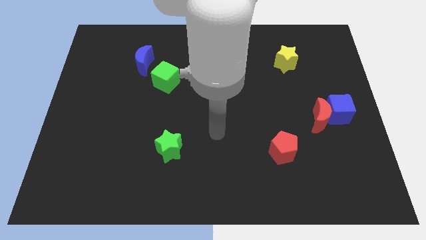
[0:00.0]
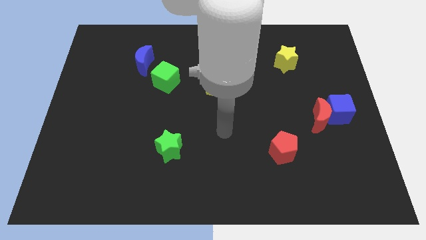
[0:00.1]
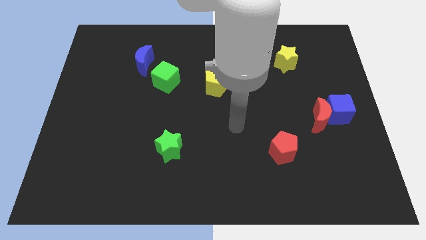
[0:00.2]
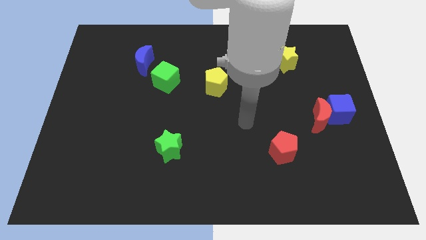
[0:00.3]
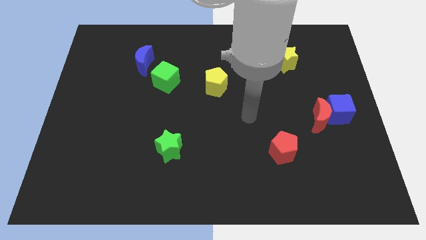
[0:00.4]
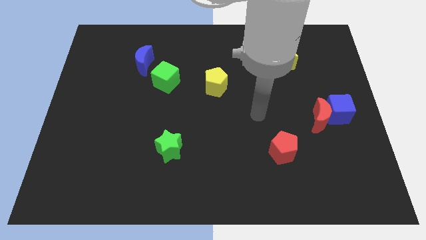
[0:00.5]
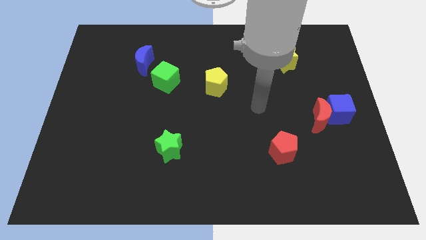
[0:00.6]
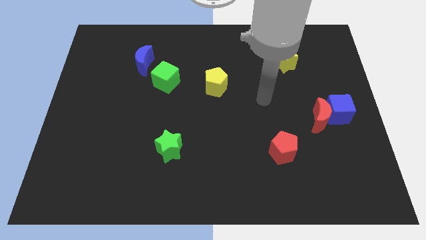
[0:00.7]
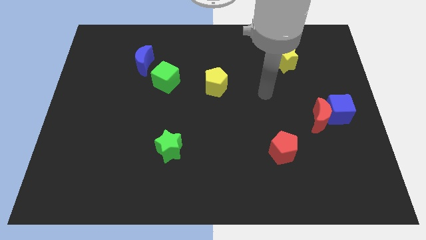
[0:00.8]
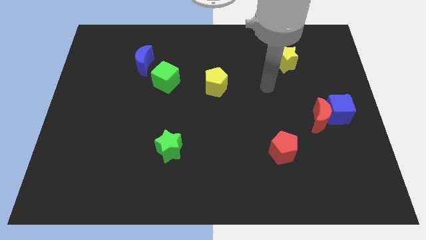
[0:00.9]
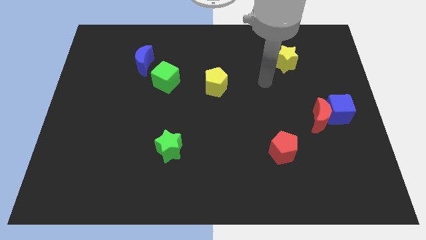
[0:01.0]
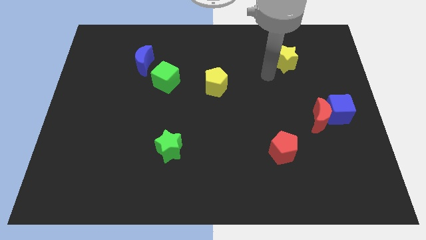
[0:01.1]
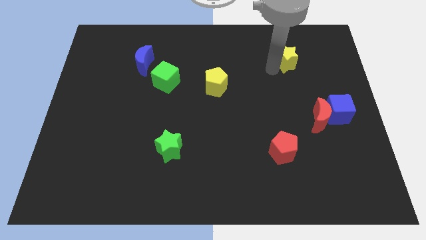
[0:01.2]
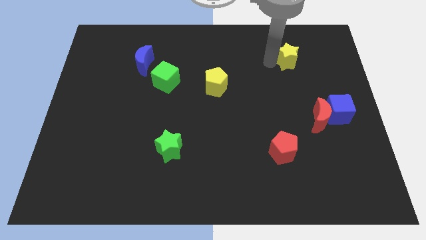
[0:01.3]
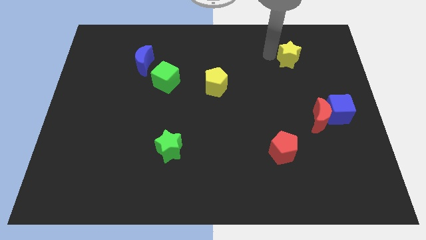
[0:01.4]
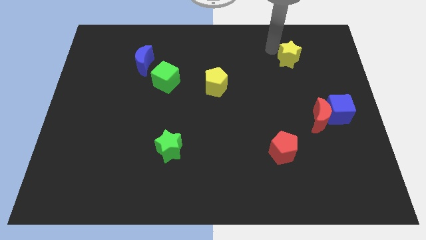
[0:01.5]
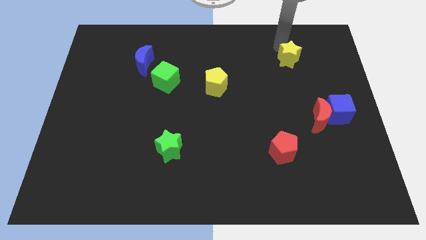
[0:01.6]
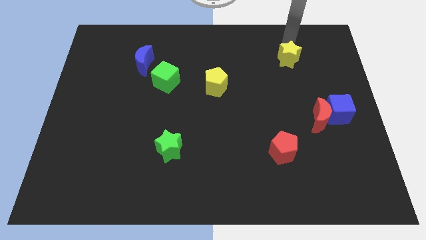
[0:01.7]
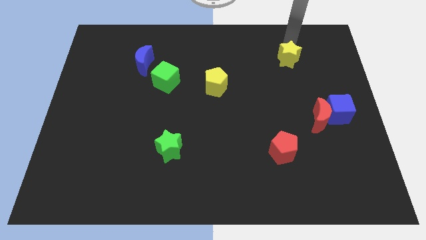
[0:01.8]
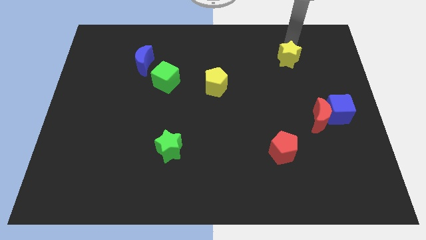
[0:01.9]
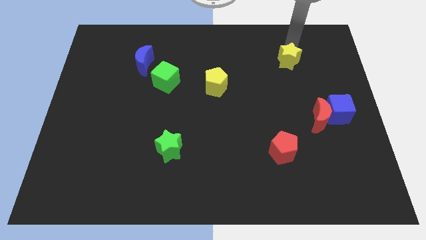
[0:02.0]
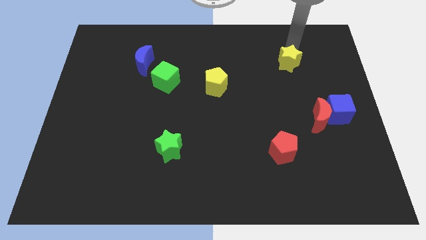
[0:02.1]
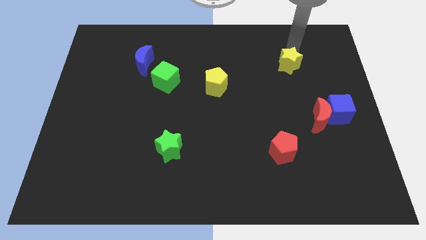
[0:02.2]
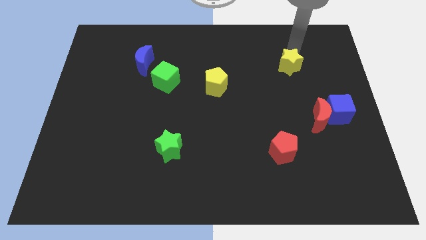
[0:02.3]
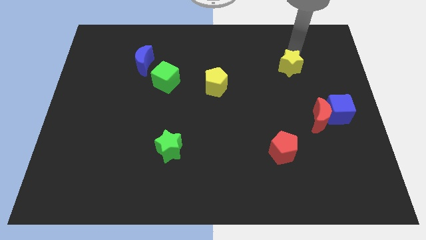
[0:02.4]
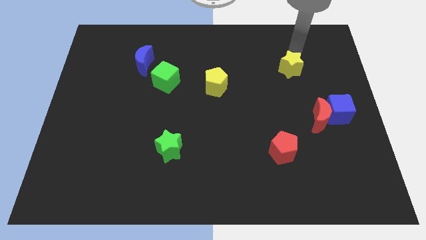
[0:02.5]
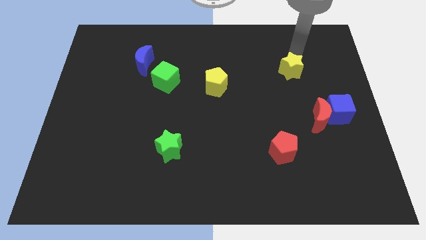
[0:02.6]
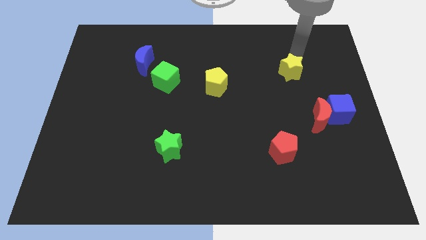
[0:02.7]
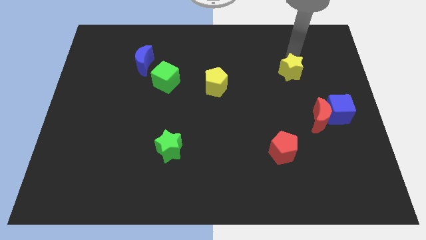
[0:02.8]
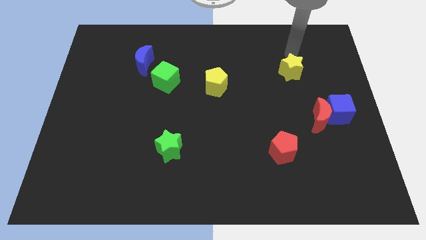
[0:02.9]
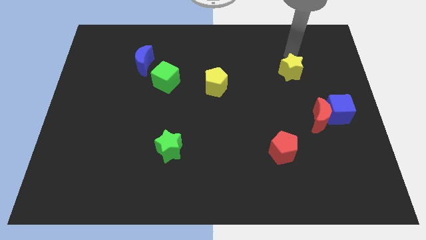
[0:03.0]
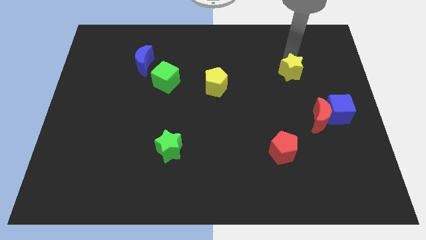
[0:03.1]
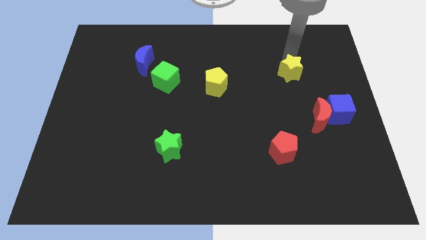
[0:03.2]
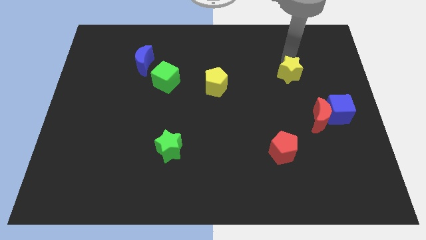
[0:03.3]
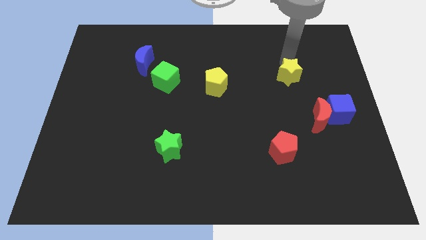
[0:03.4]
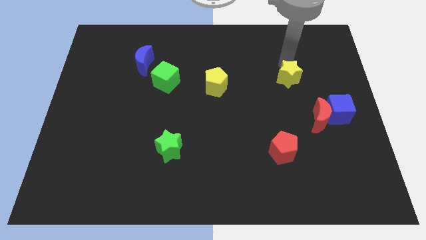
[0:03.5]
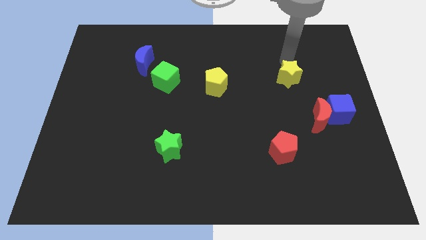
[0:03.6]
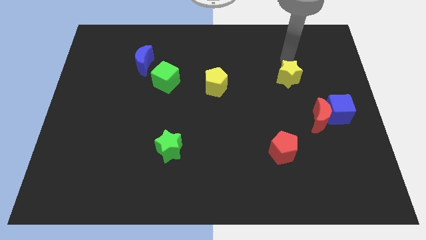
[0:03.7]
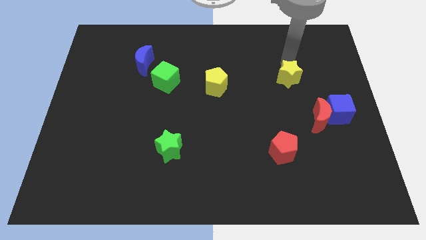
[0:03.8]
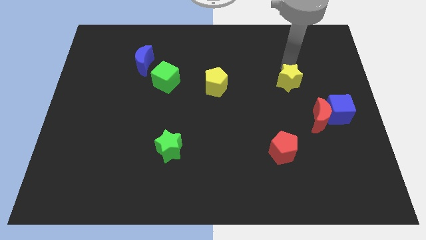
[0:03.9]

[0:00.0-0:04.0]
move the yellow star down slightly

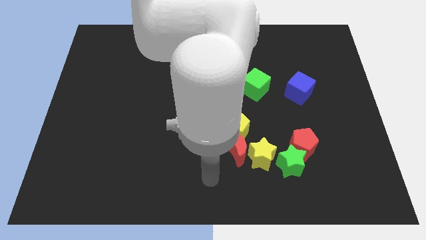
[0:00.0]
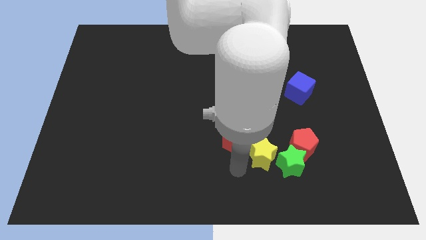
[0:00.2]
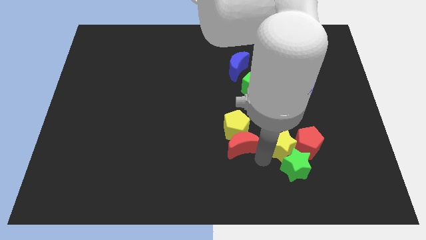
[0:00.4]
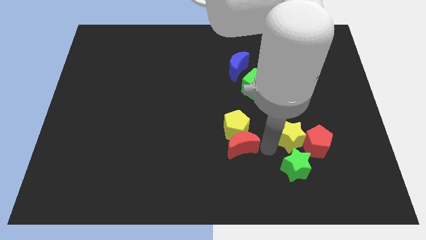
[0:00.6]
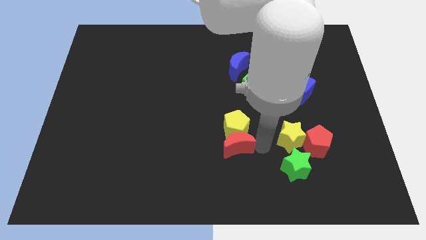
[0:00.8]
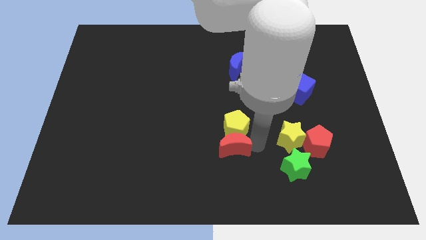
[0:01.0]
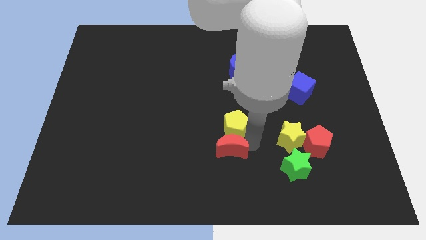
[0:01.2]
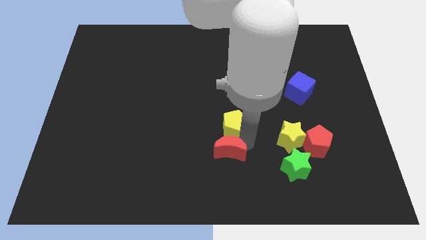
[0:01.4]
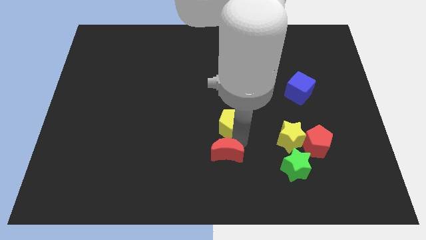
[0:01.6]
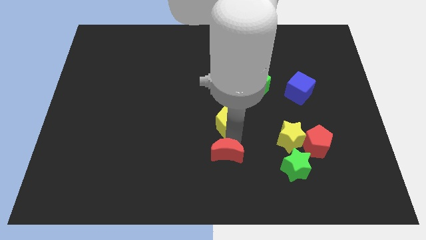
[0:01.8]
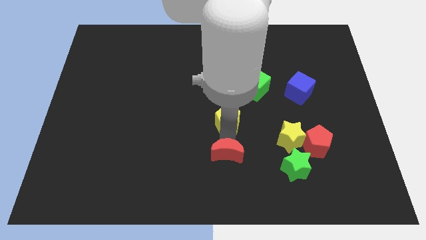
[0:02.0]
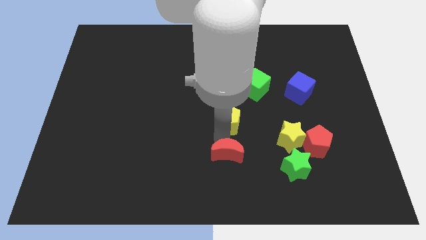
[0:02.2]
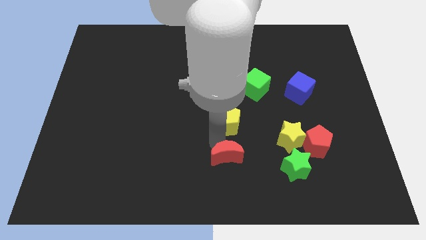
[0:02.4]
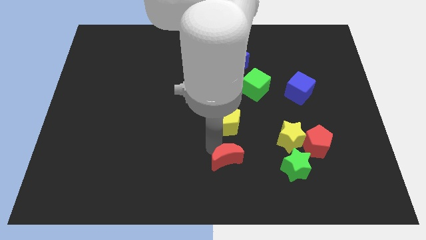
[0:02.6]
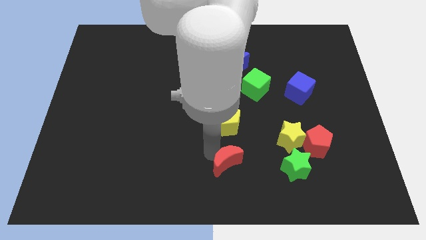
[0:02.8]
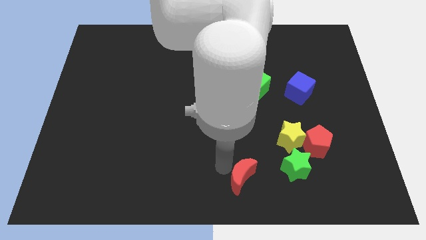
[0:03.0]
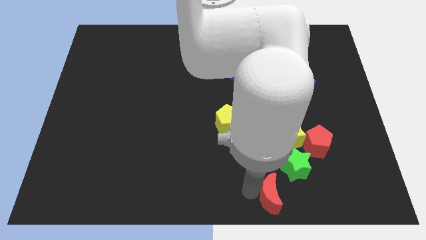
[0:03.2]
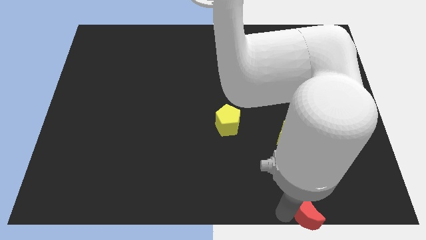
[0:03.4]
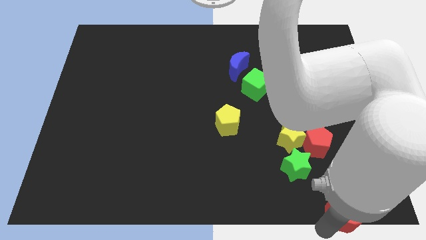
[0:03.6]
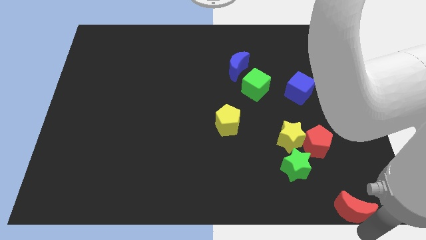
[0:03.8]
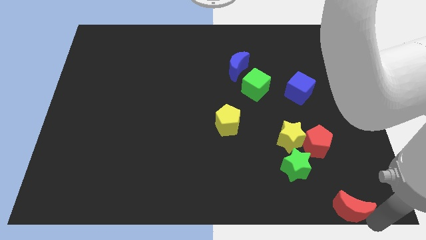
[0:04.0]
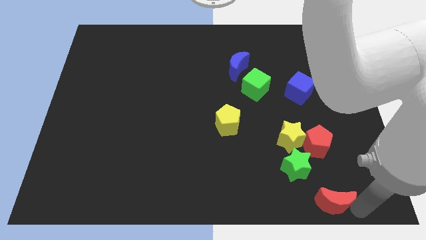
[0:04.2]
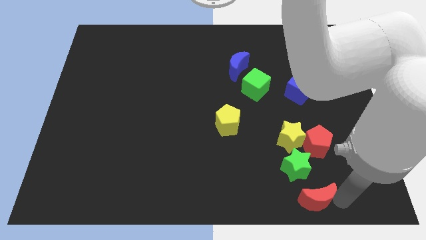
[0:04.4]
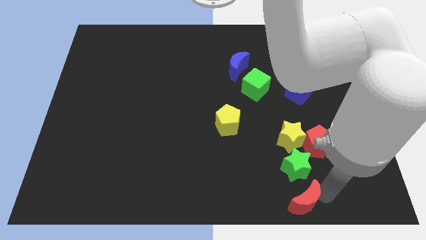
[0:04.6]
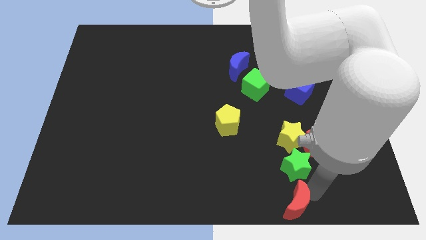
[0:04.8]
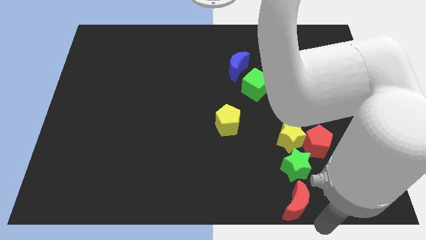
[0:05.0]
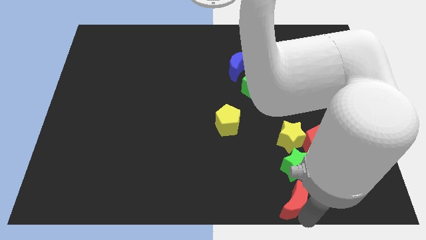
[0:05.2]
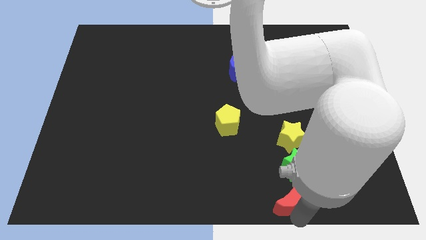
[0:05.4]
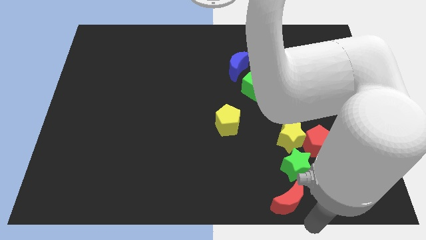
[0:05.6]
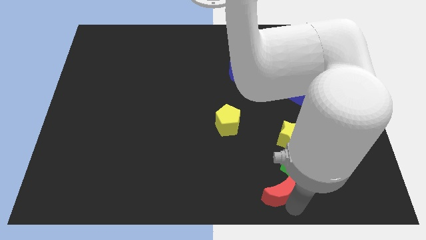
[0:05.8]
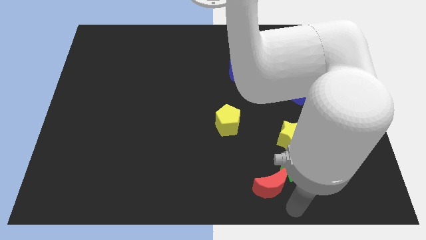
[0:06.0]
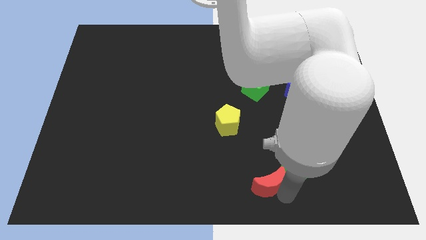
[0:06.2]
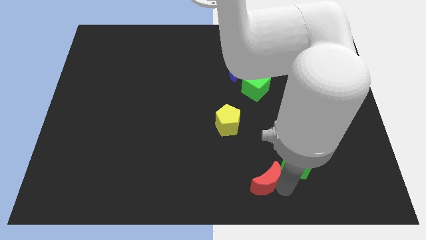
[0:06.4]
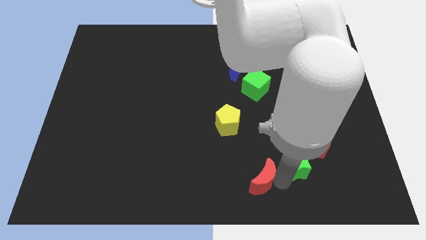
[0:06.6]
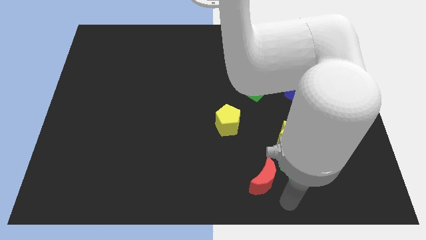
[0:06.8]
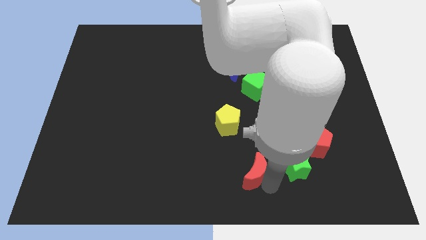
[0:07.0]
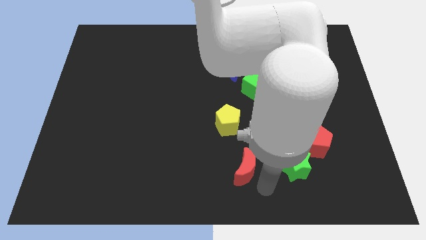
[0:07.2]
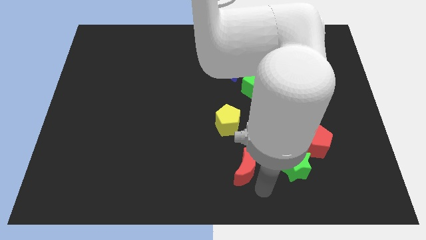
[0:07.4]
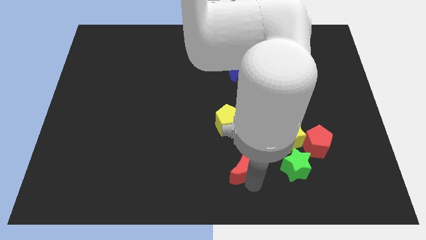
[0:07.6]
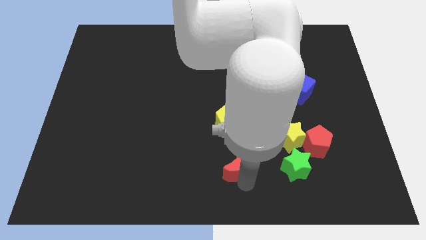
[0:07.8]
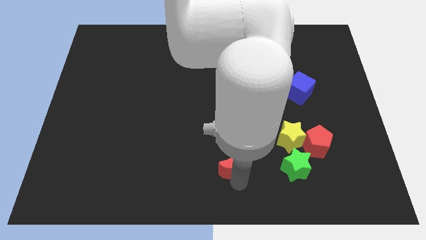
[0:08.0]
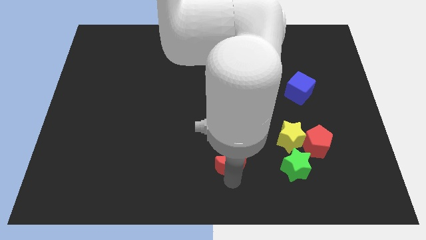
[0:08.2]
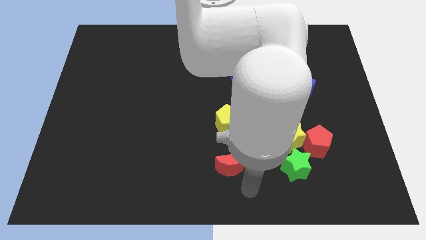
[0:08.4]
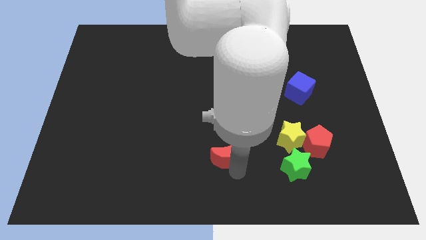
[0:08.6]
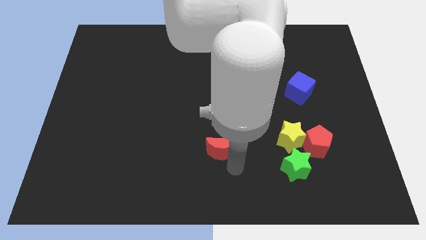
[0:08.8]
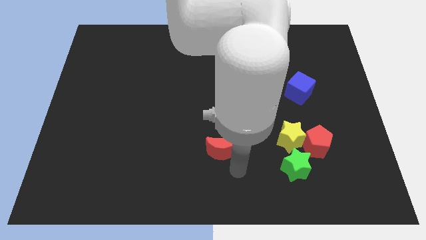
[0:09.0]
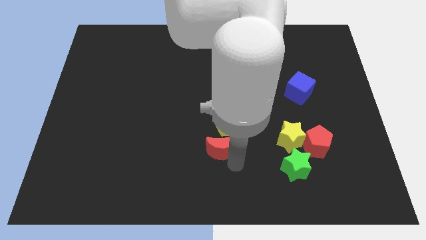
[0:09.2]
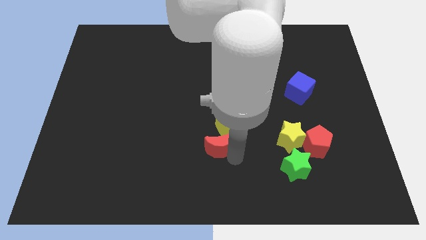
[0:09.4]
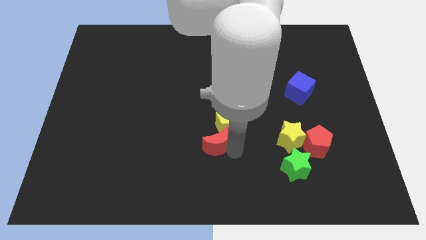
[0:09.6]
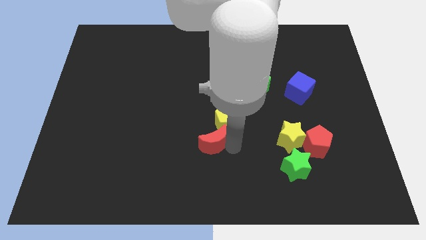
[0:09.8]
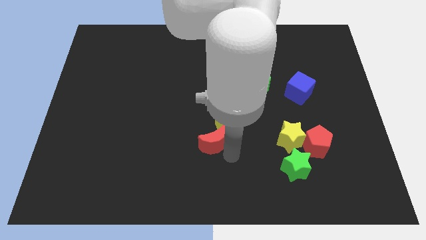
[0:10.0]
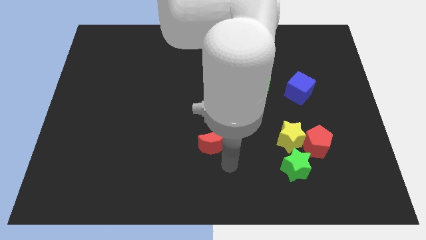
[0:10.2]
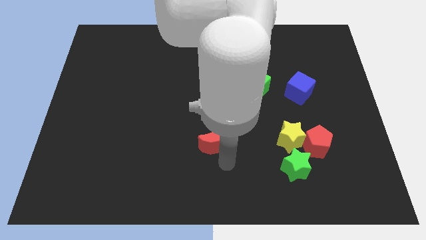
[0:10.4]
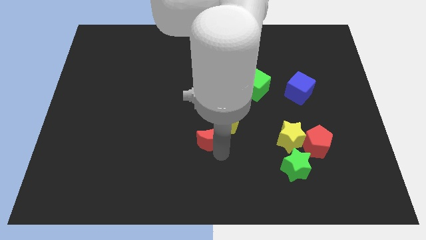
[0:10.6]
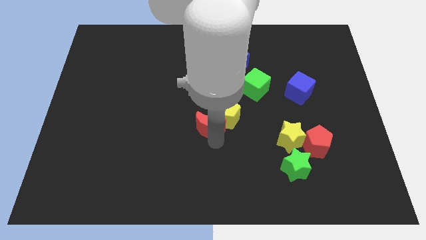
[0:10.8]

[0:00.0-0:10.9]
slide the red moon upwards and then to the left a little bit
